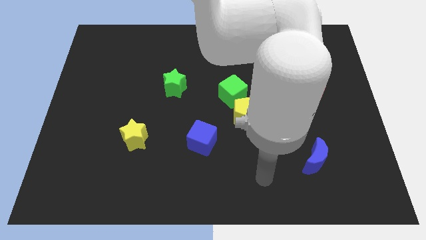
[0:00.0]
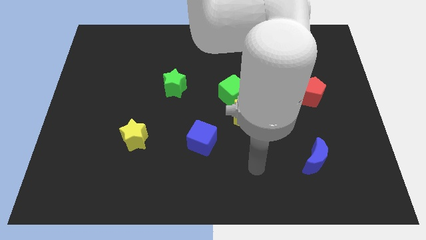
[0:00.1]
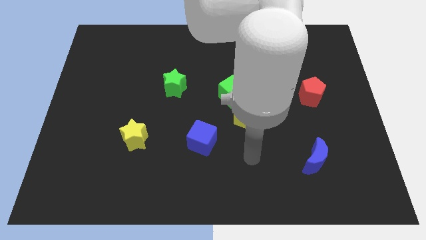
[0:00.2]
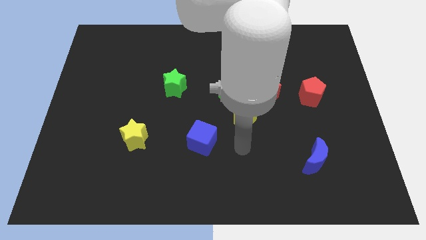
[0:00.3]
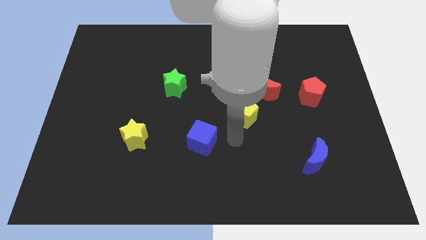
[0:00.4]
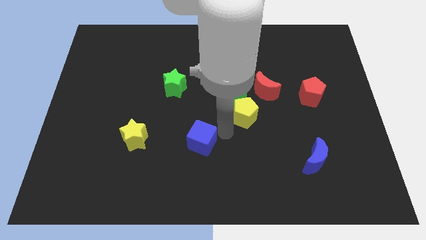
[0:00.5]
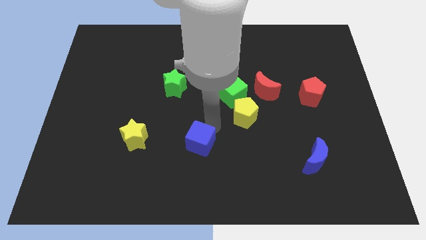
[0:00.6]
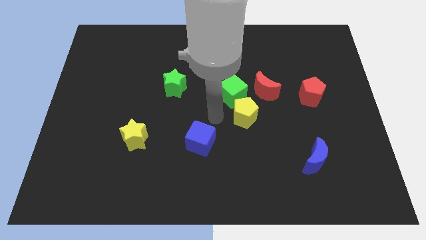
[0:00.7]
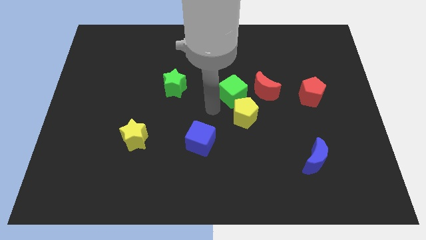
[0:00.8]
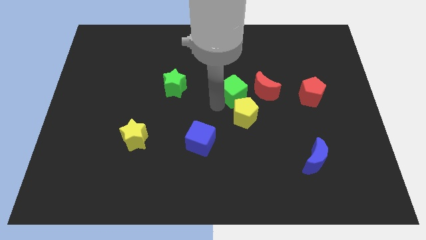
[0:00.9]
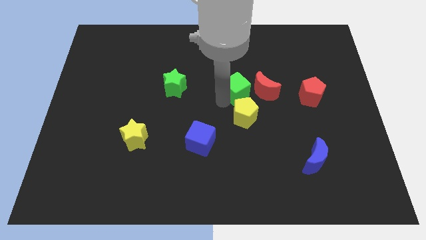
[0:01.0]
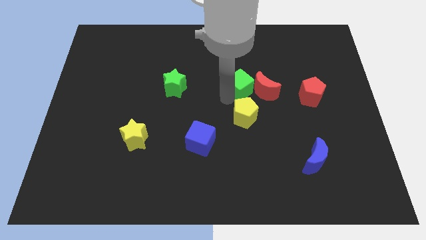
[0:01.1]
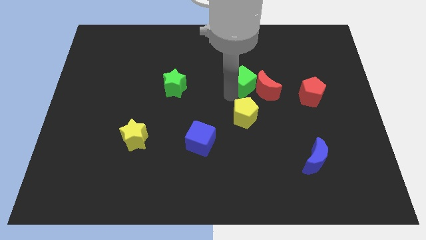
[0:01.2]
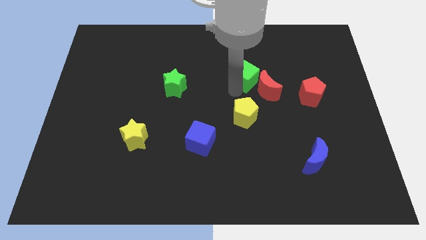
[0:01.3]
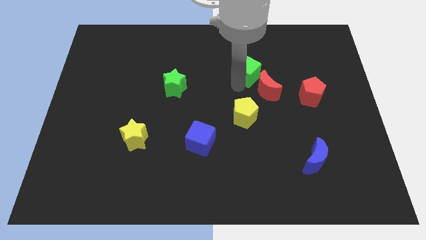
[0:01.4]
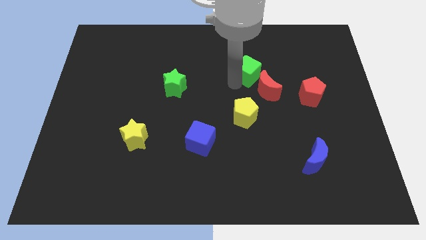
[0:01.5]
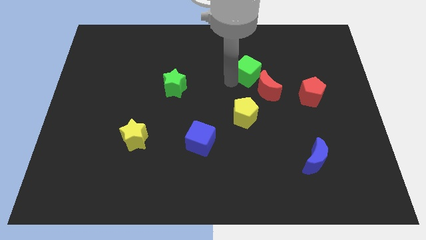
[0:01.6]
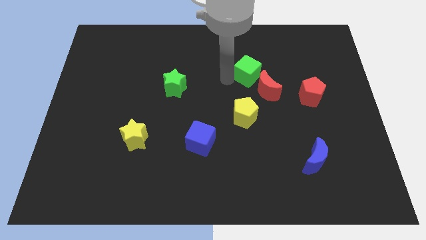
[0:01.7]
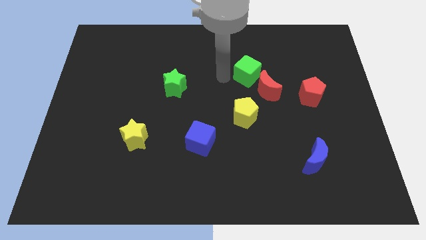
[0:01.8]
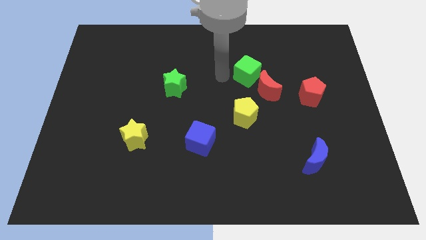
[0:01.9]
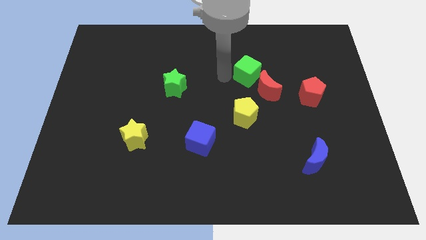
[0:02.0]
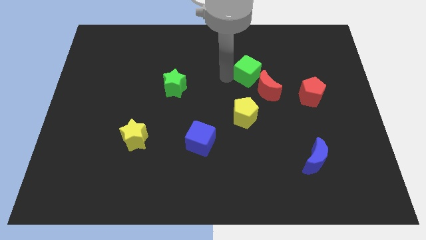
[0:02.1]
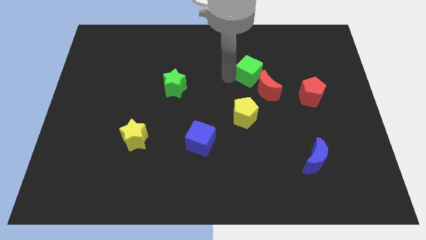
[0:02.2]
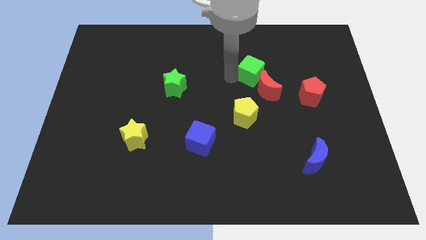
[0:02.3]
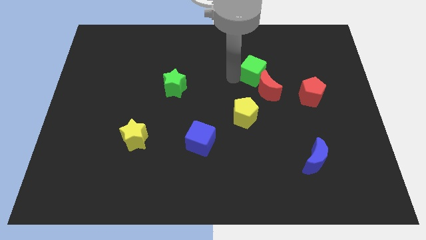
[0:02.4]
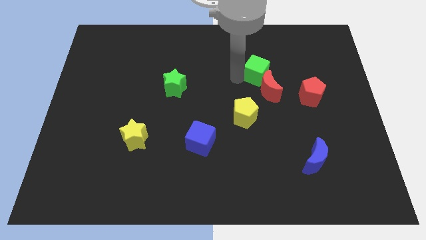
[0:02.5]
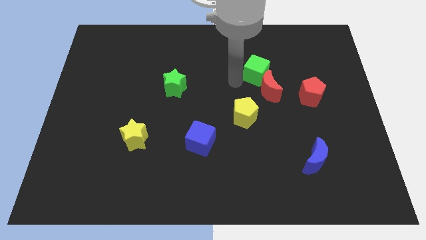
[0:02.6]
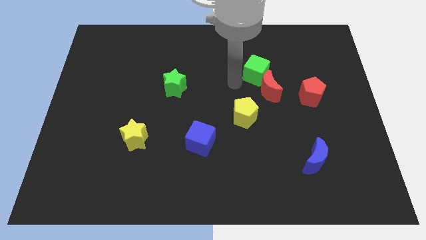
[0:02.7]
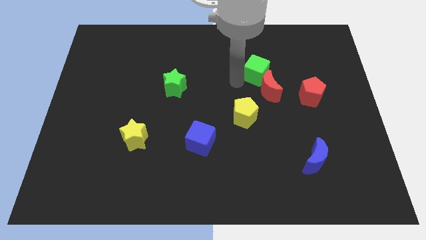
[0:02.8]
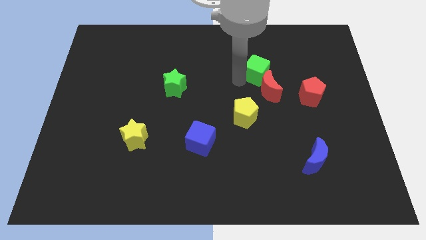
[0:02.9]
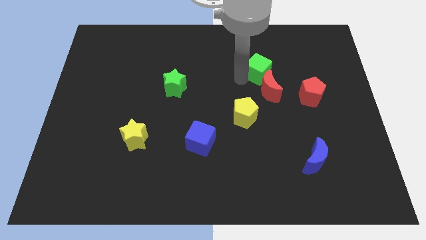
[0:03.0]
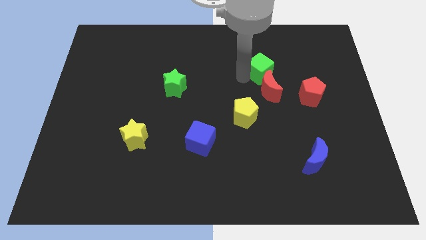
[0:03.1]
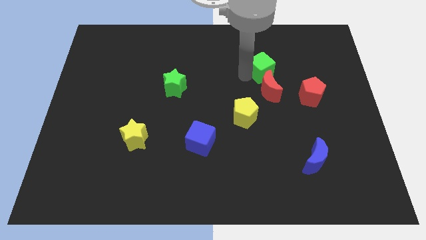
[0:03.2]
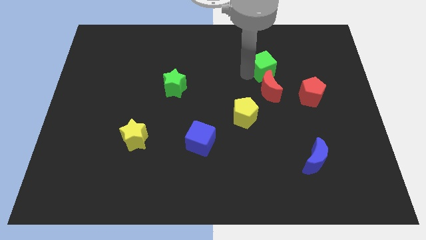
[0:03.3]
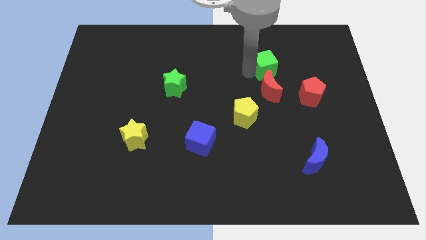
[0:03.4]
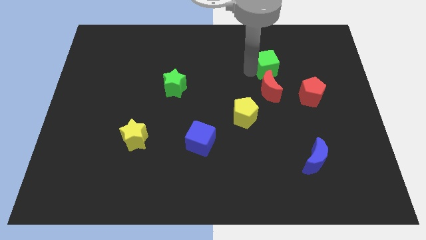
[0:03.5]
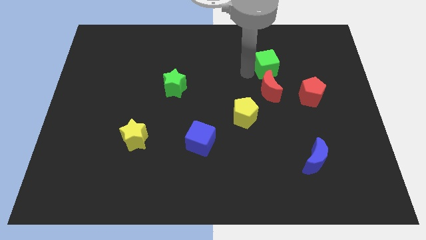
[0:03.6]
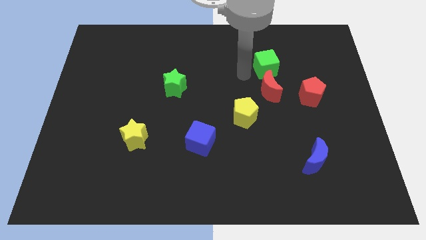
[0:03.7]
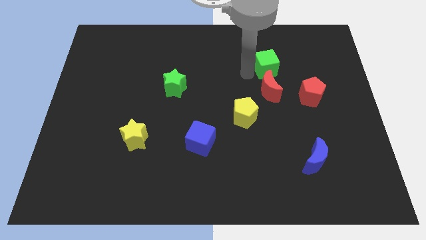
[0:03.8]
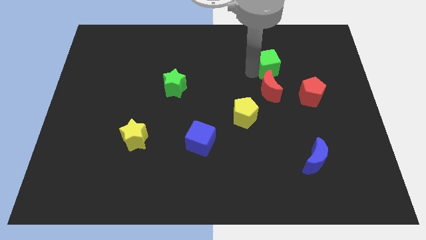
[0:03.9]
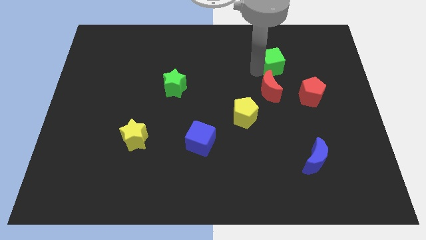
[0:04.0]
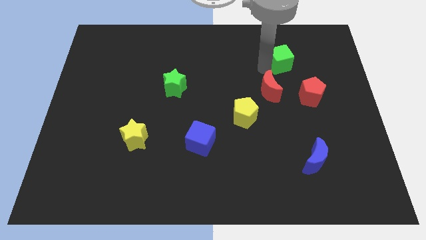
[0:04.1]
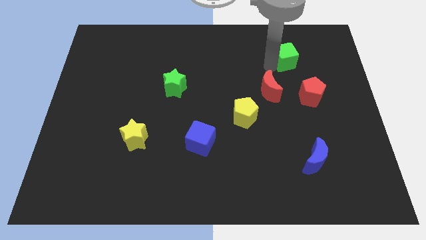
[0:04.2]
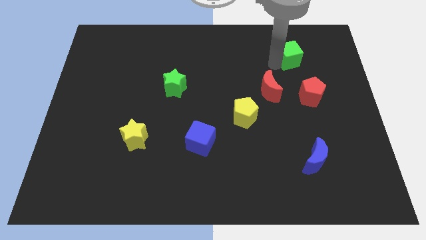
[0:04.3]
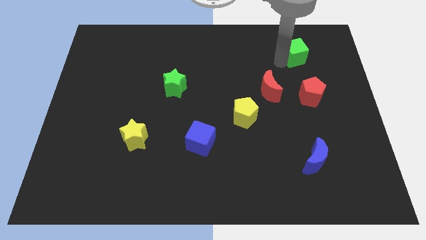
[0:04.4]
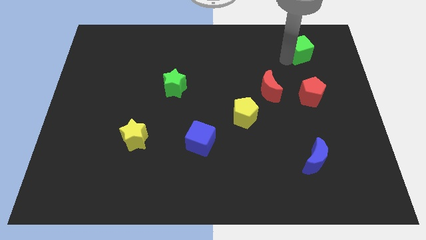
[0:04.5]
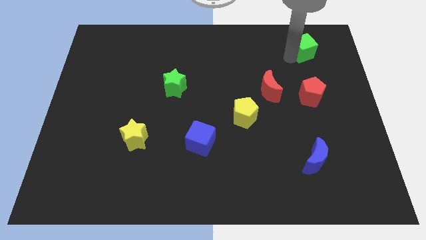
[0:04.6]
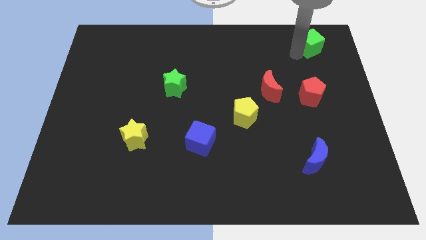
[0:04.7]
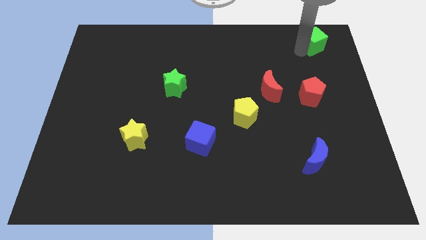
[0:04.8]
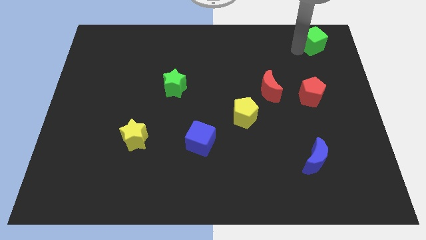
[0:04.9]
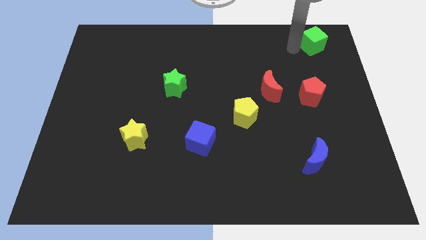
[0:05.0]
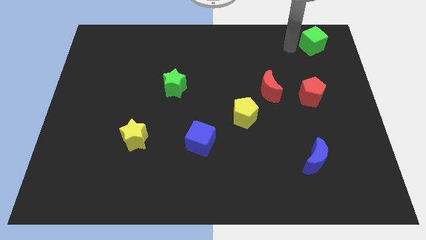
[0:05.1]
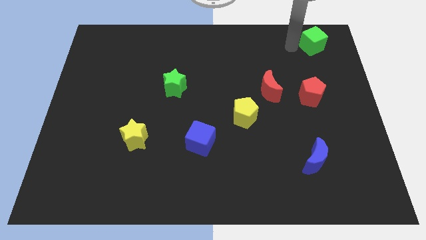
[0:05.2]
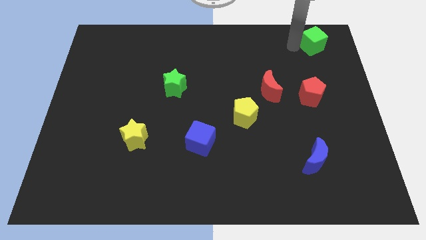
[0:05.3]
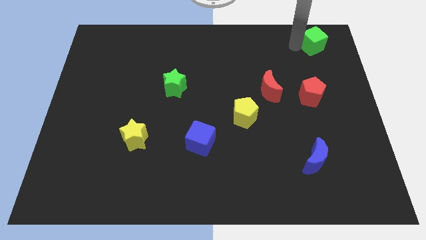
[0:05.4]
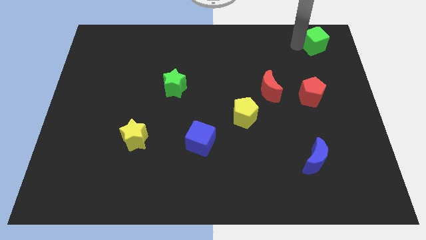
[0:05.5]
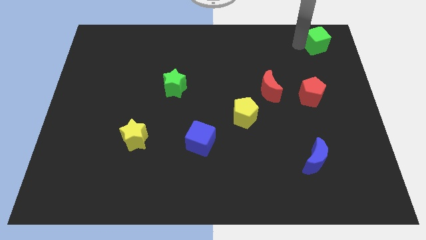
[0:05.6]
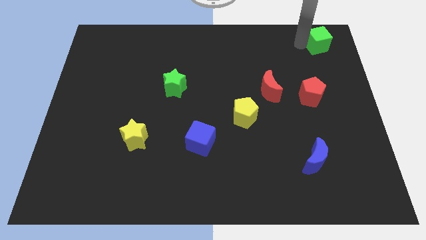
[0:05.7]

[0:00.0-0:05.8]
move the green cube to the top right corner

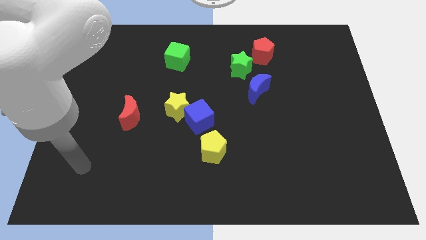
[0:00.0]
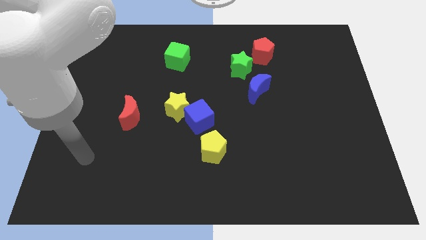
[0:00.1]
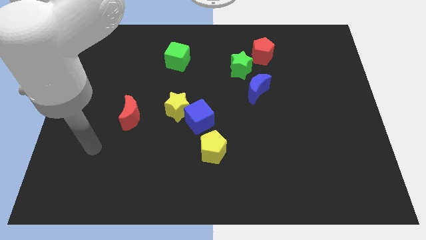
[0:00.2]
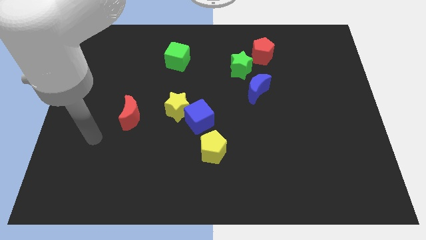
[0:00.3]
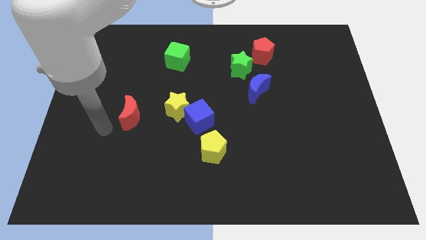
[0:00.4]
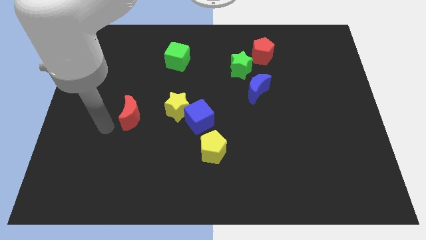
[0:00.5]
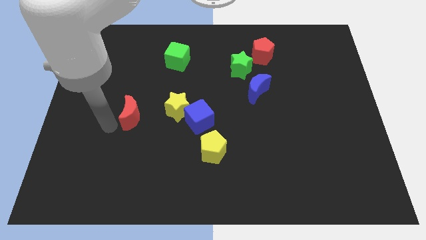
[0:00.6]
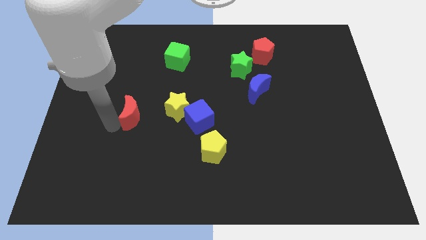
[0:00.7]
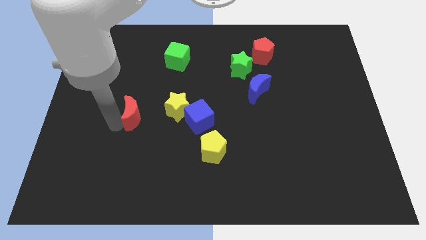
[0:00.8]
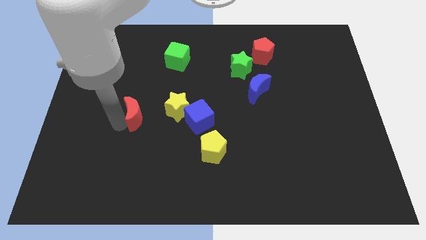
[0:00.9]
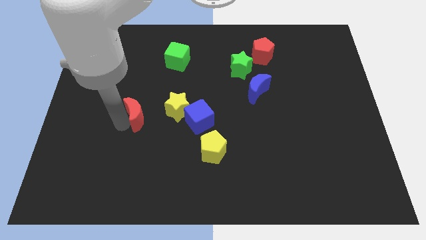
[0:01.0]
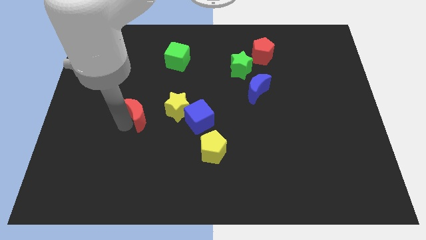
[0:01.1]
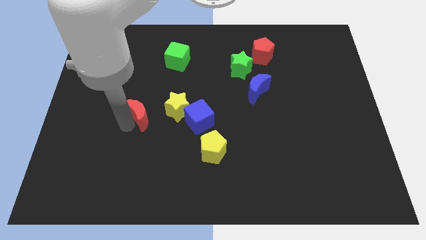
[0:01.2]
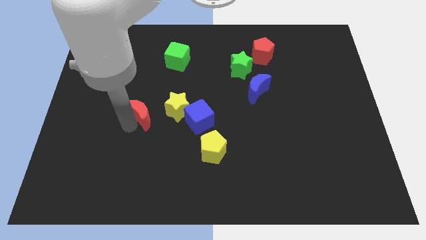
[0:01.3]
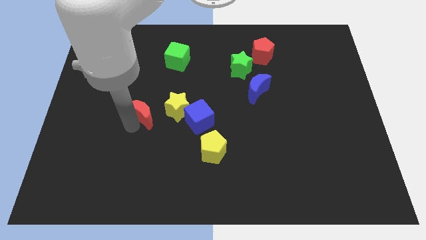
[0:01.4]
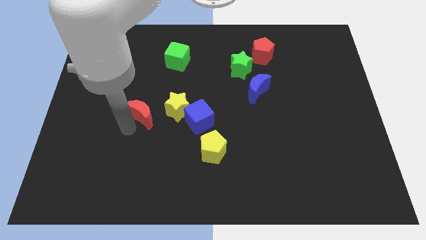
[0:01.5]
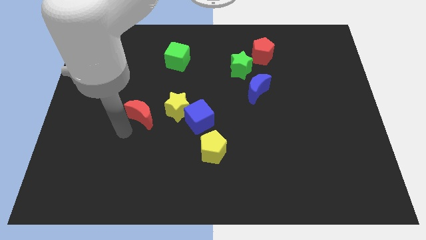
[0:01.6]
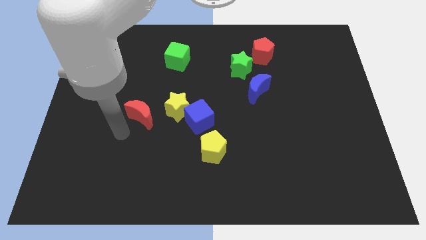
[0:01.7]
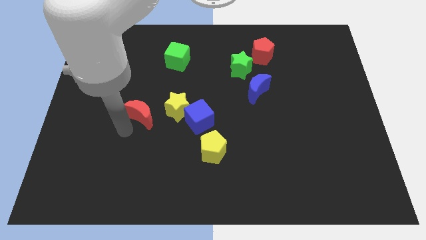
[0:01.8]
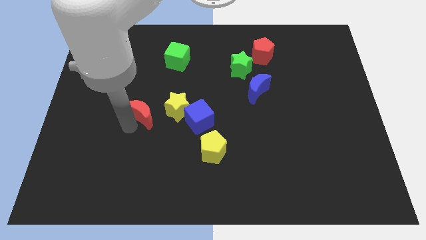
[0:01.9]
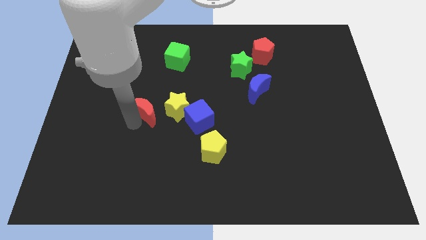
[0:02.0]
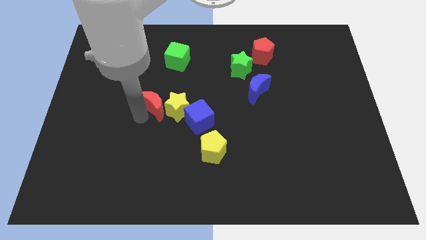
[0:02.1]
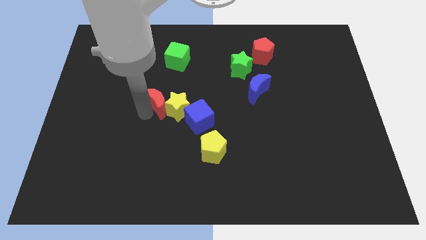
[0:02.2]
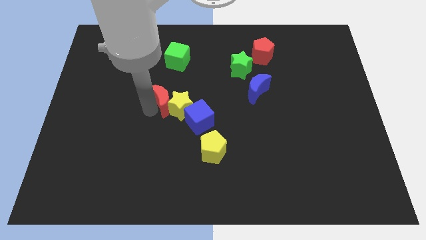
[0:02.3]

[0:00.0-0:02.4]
move the red moon to the middle of the board
